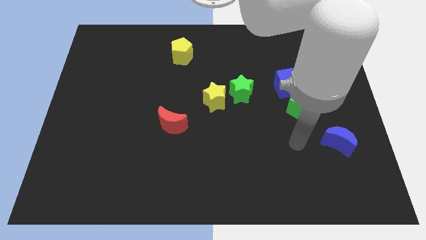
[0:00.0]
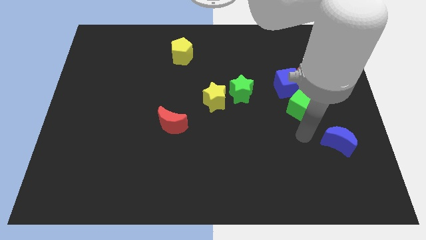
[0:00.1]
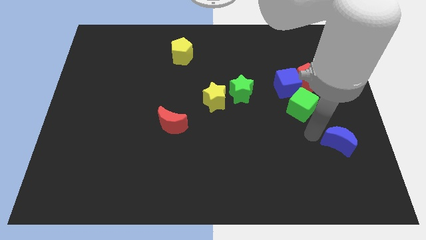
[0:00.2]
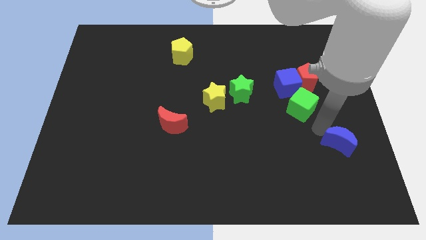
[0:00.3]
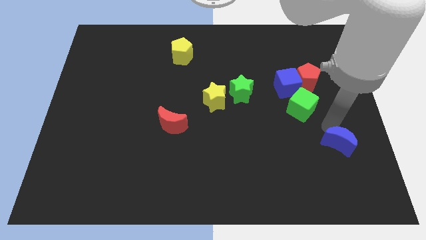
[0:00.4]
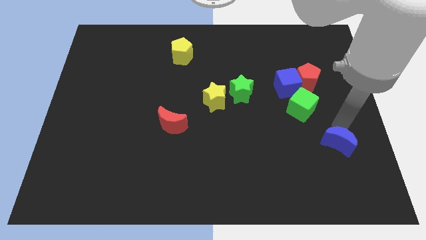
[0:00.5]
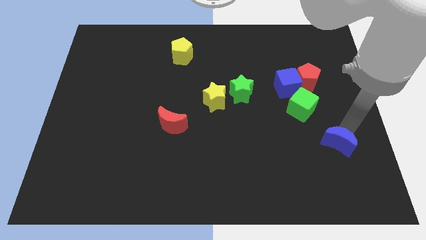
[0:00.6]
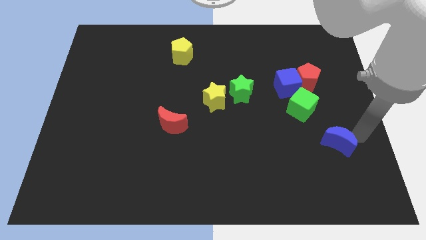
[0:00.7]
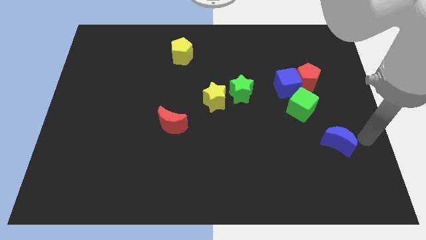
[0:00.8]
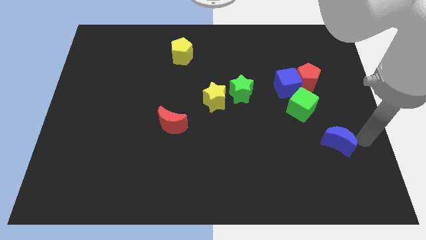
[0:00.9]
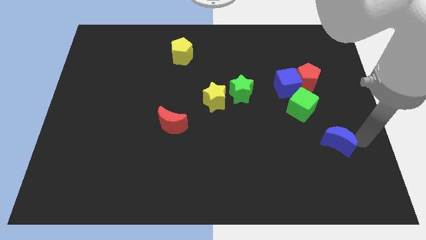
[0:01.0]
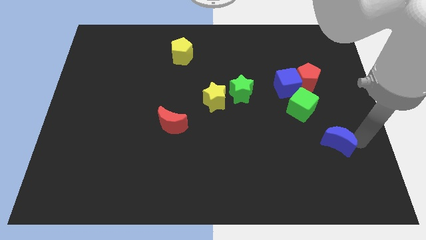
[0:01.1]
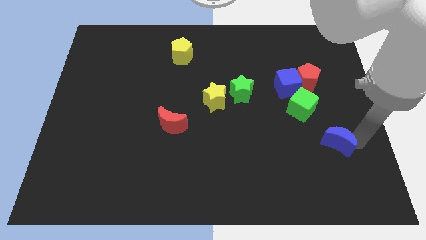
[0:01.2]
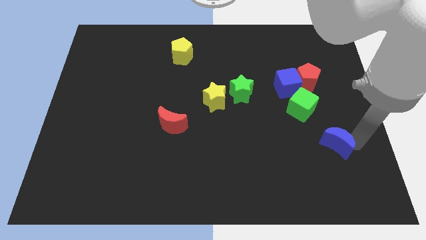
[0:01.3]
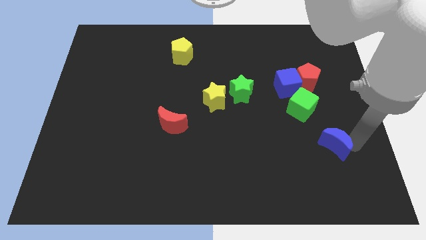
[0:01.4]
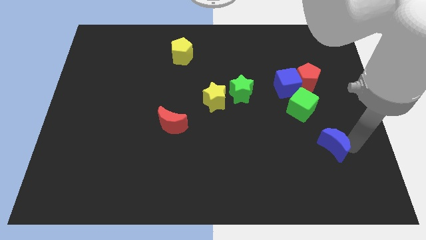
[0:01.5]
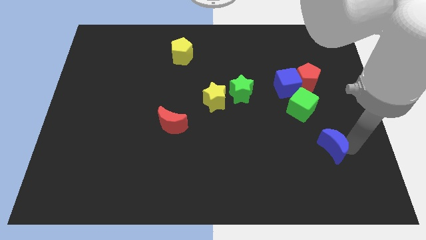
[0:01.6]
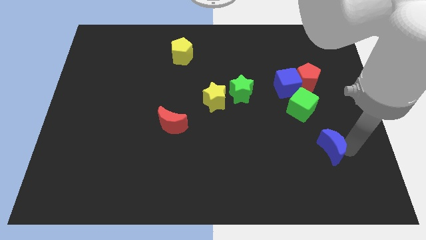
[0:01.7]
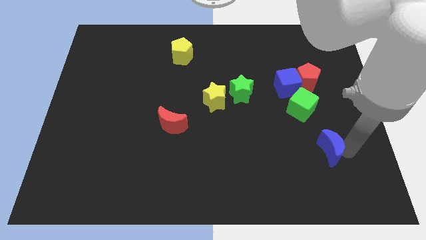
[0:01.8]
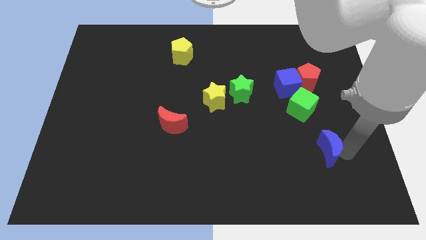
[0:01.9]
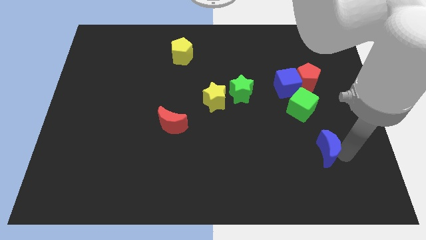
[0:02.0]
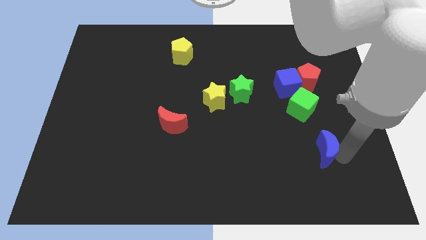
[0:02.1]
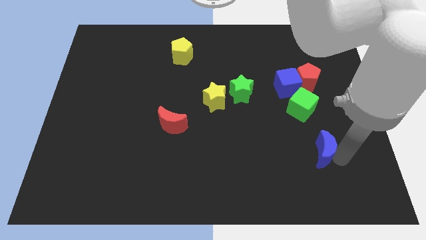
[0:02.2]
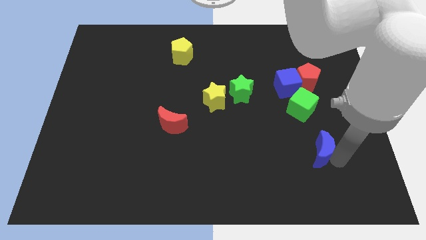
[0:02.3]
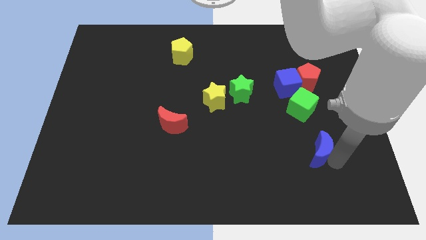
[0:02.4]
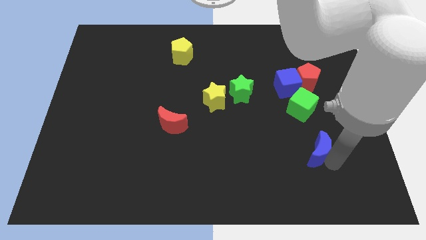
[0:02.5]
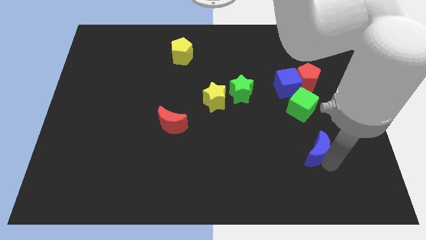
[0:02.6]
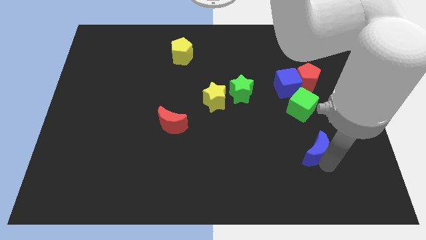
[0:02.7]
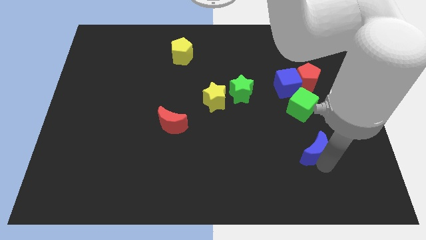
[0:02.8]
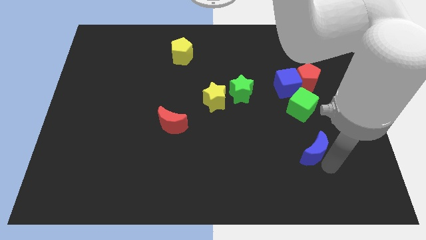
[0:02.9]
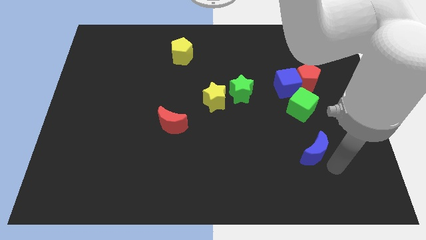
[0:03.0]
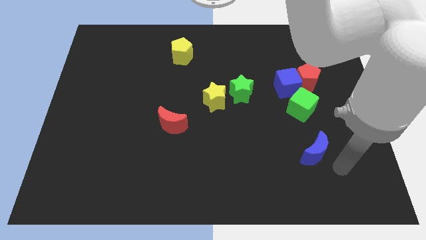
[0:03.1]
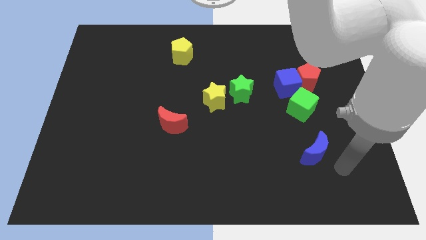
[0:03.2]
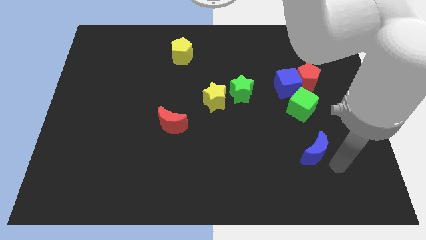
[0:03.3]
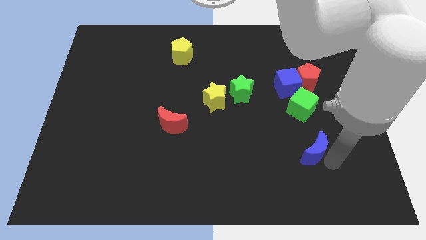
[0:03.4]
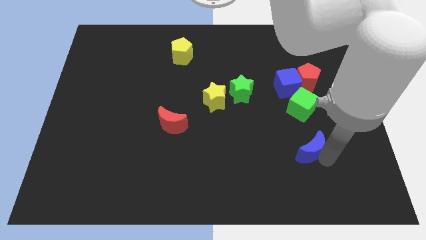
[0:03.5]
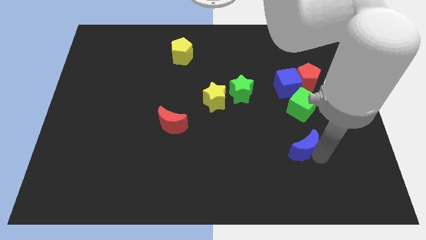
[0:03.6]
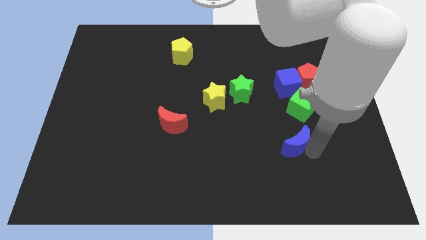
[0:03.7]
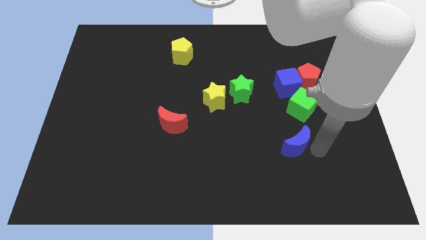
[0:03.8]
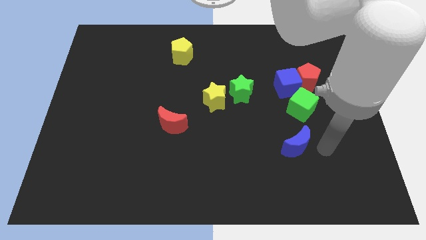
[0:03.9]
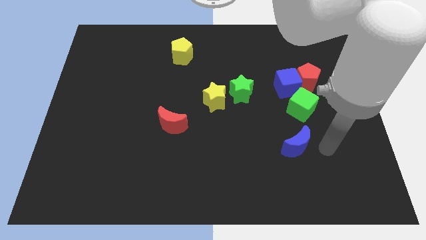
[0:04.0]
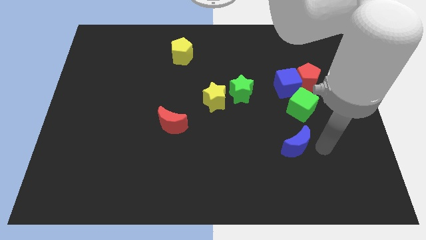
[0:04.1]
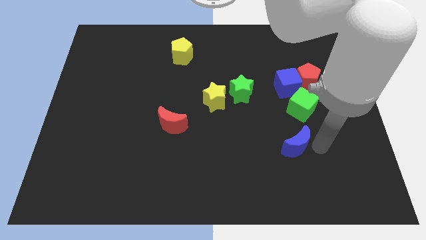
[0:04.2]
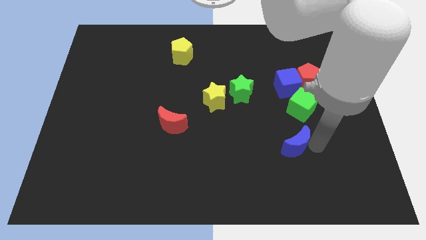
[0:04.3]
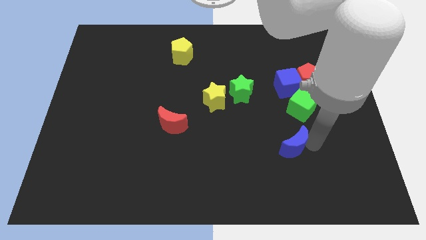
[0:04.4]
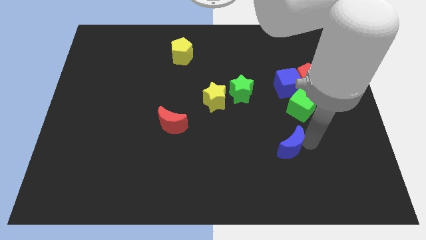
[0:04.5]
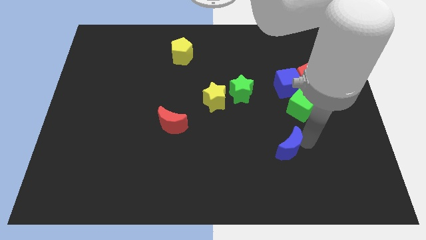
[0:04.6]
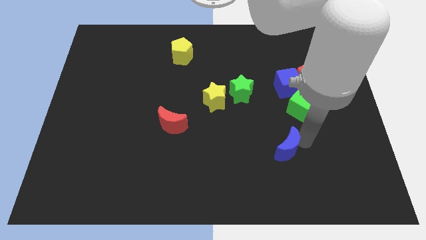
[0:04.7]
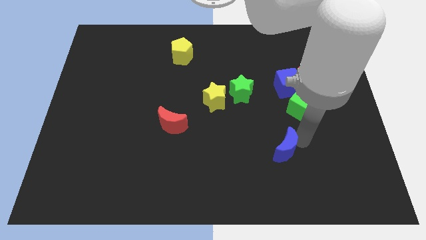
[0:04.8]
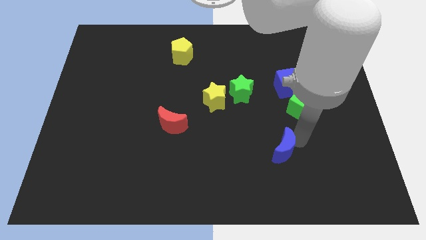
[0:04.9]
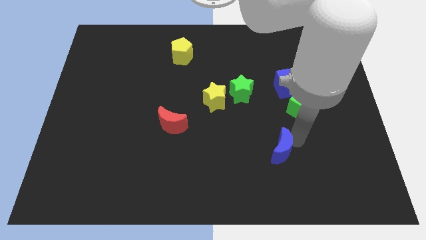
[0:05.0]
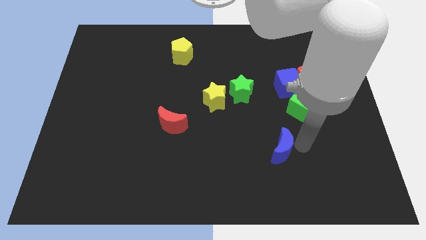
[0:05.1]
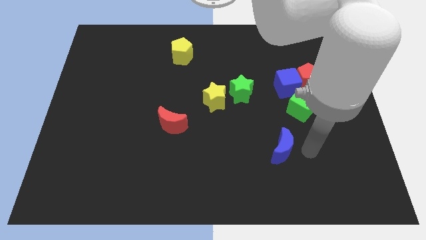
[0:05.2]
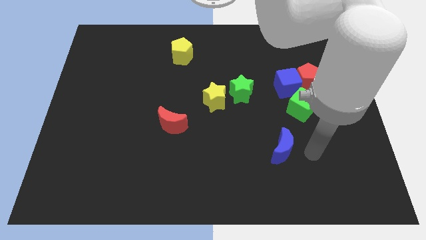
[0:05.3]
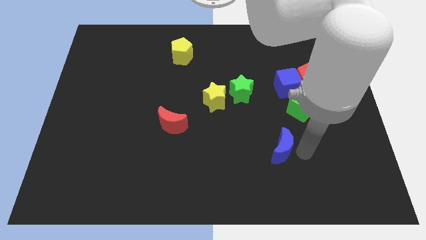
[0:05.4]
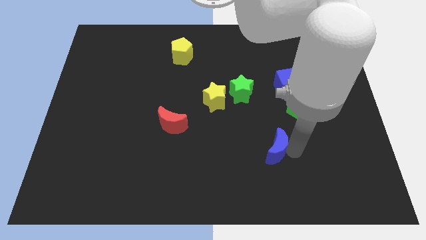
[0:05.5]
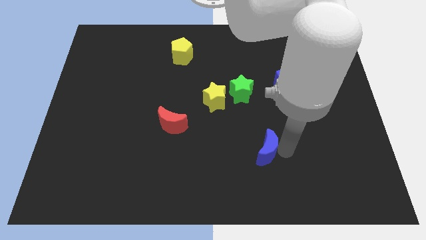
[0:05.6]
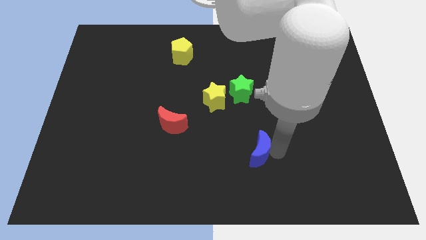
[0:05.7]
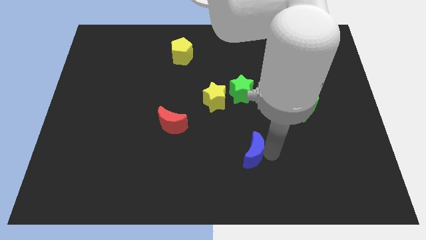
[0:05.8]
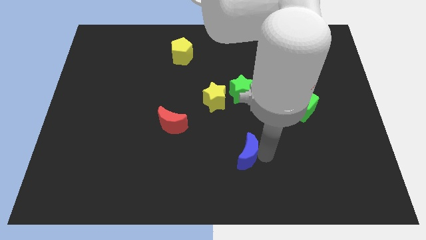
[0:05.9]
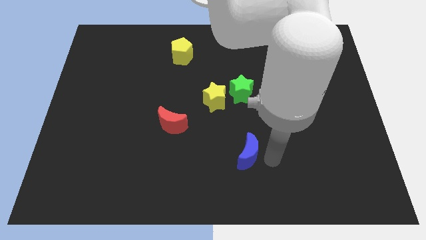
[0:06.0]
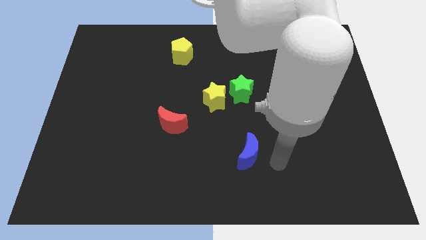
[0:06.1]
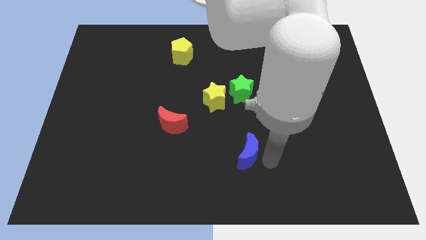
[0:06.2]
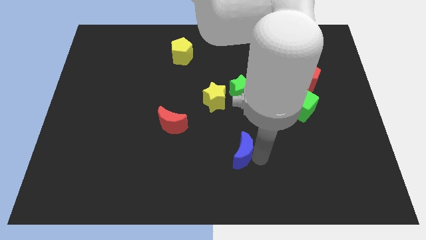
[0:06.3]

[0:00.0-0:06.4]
push the blue moon left

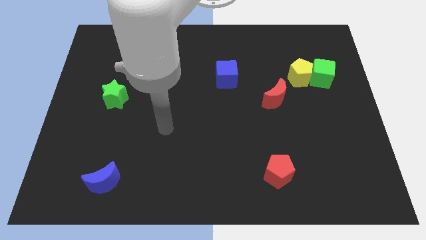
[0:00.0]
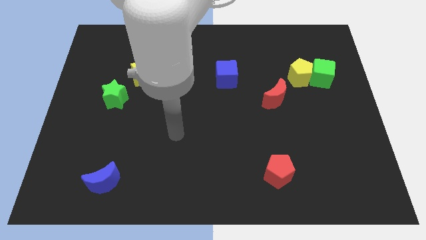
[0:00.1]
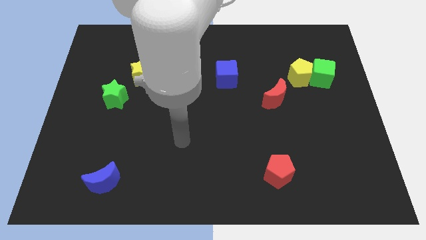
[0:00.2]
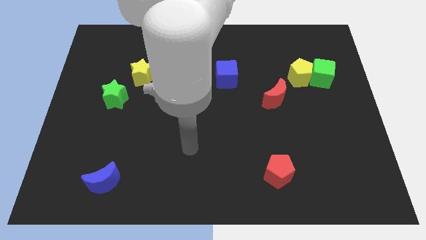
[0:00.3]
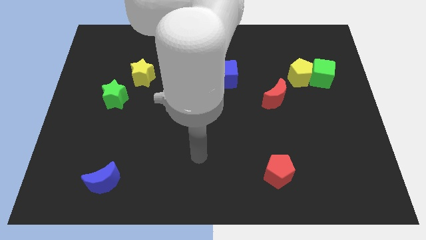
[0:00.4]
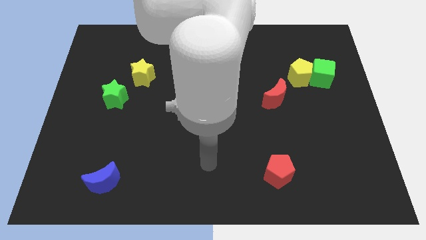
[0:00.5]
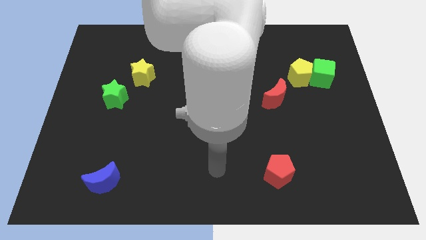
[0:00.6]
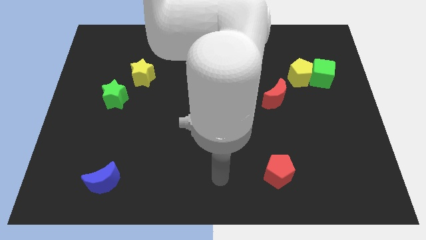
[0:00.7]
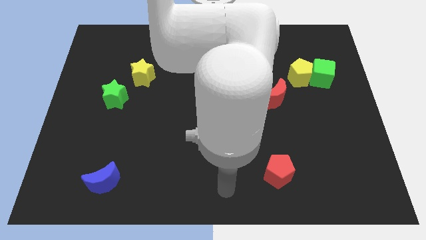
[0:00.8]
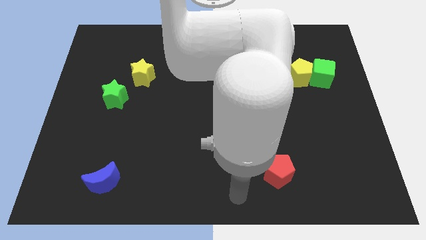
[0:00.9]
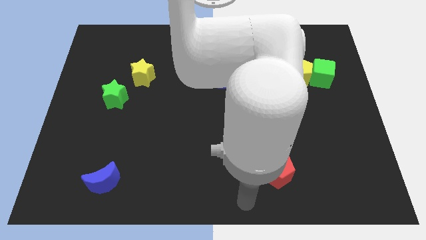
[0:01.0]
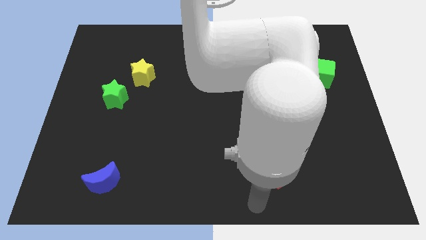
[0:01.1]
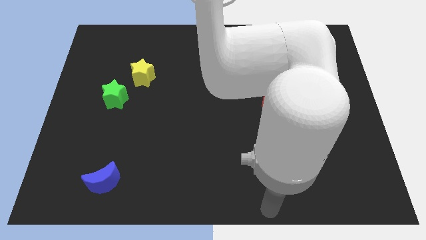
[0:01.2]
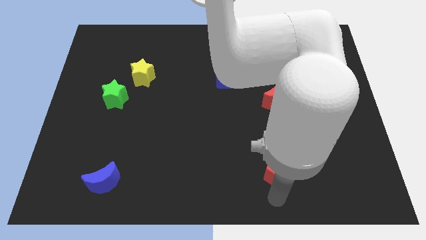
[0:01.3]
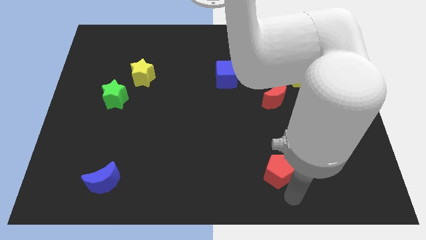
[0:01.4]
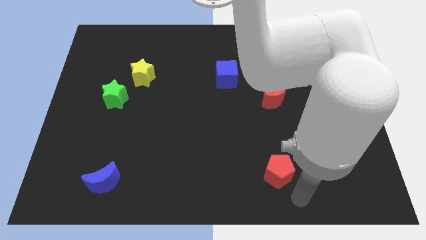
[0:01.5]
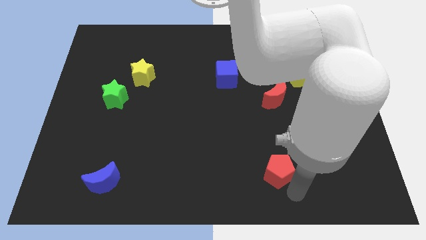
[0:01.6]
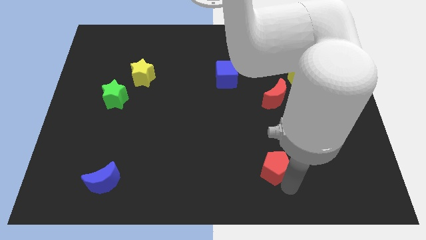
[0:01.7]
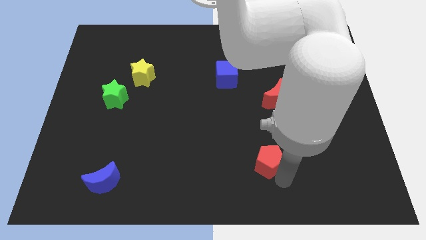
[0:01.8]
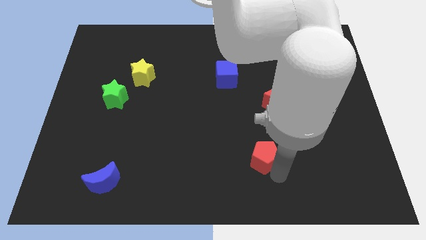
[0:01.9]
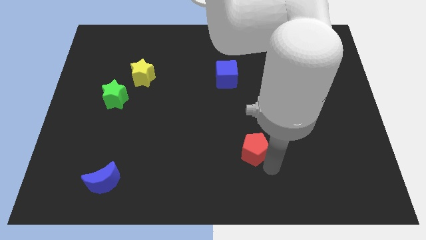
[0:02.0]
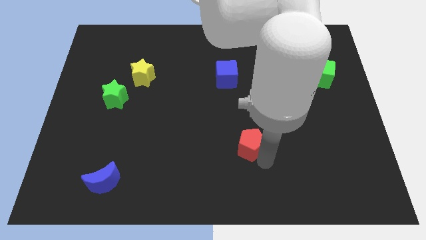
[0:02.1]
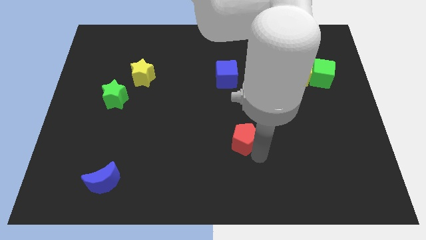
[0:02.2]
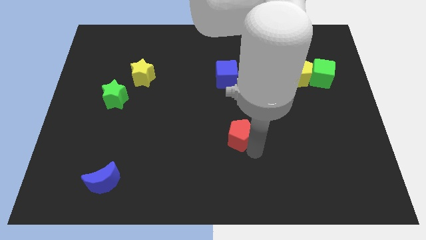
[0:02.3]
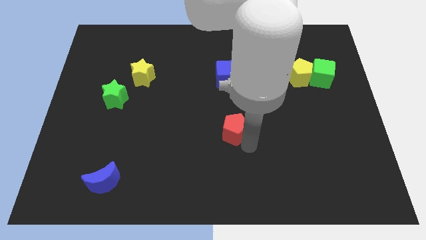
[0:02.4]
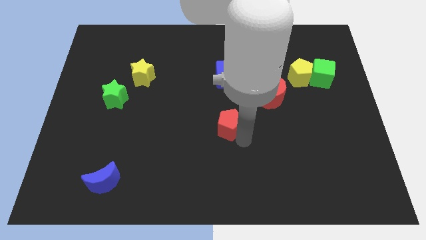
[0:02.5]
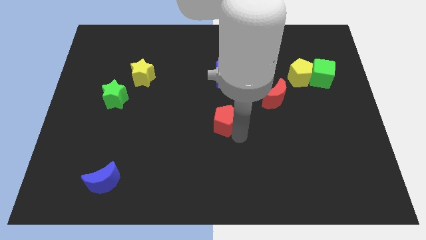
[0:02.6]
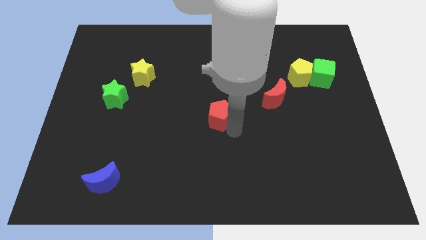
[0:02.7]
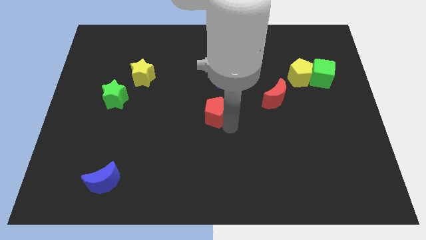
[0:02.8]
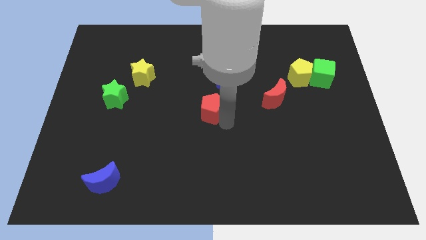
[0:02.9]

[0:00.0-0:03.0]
move the red pentagon up and to the left
